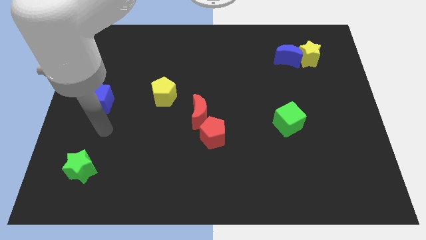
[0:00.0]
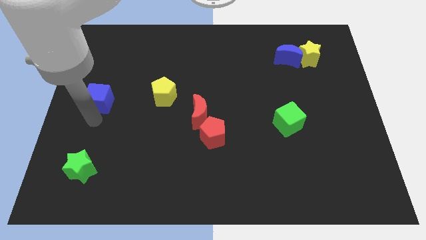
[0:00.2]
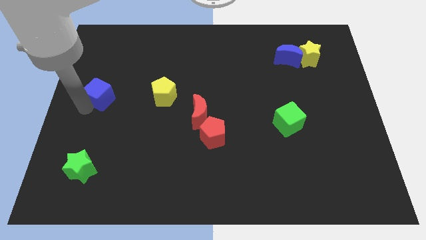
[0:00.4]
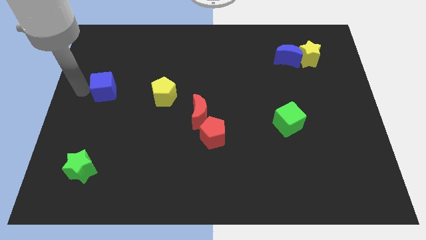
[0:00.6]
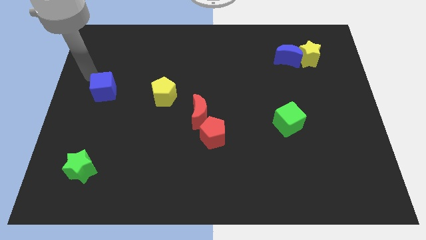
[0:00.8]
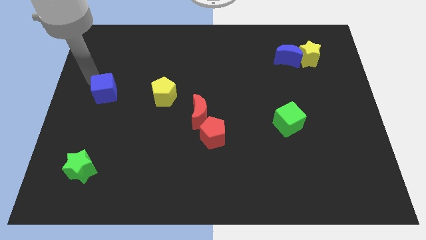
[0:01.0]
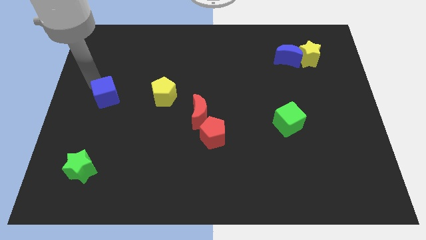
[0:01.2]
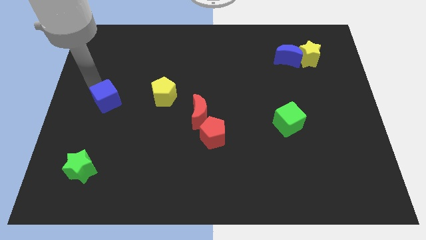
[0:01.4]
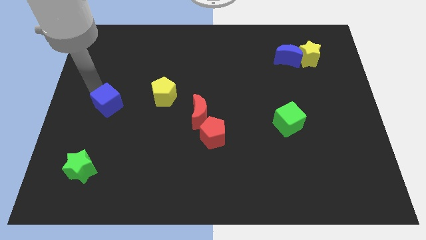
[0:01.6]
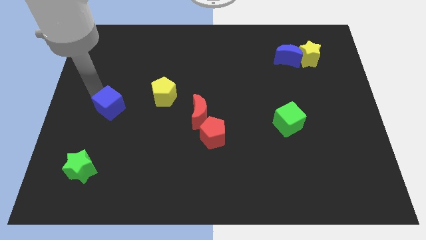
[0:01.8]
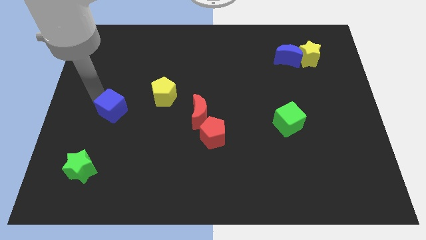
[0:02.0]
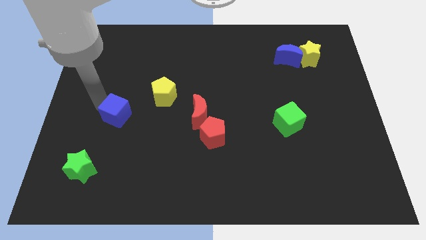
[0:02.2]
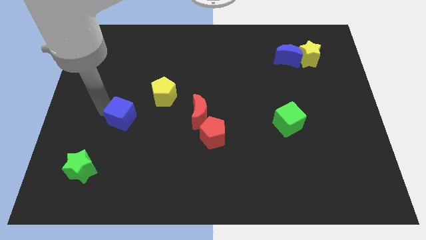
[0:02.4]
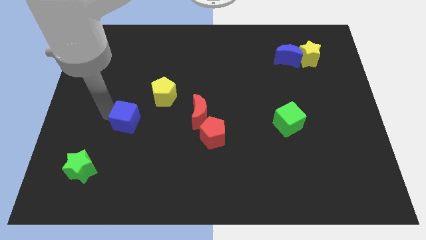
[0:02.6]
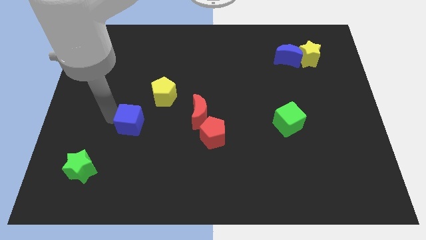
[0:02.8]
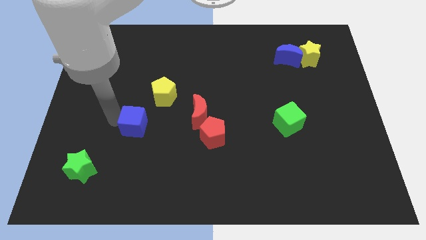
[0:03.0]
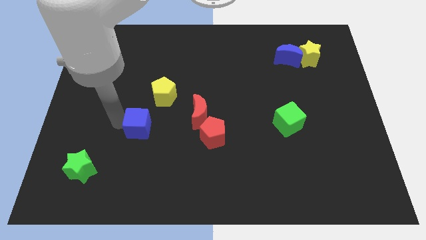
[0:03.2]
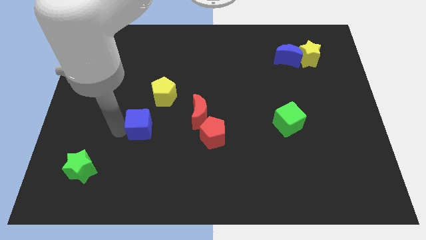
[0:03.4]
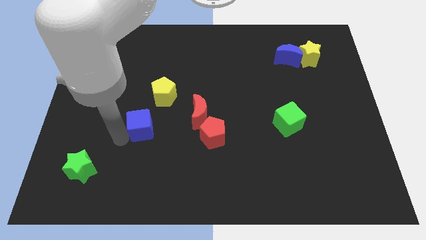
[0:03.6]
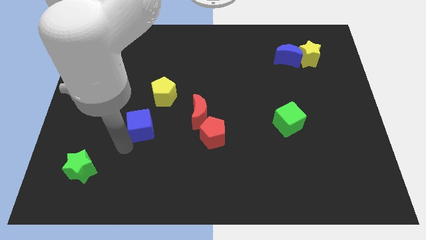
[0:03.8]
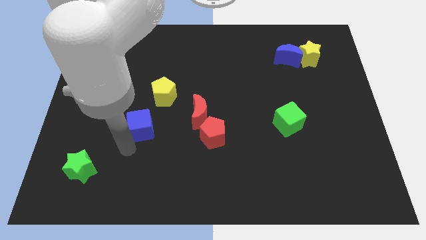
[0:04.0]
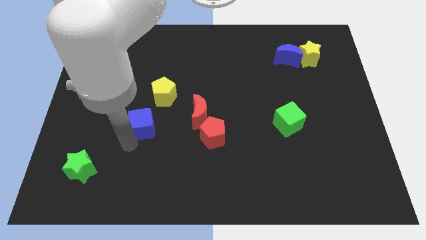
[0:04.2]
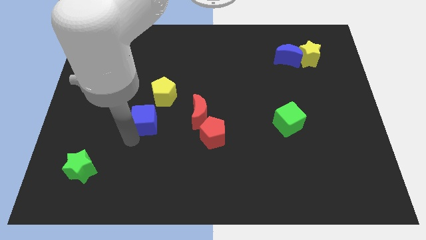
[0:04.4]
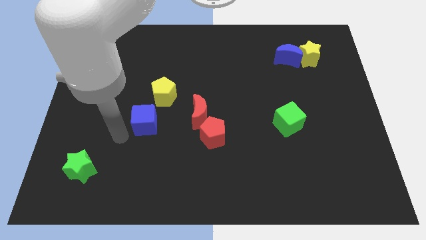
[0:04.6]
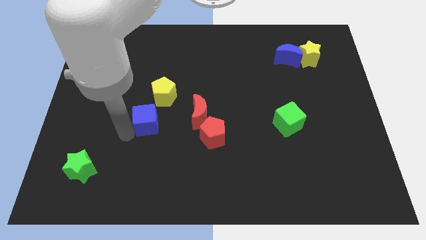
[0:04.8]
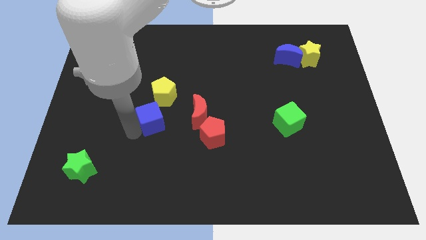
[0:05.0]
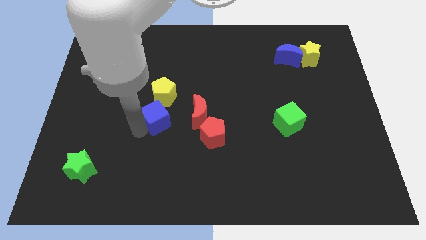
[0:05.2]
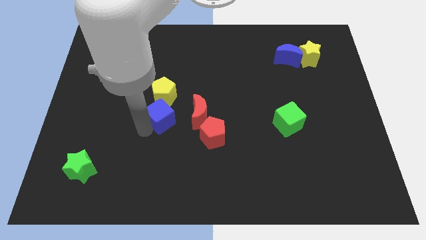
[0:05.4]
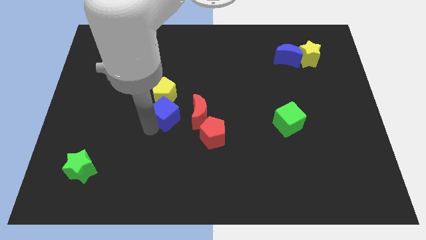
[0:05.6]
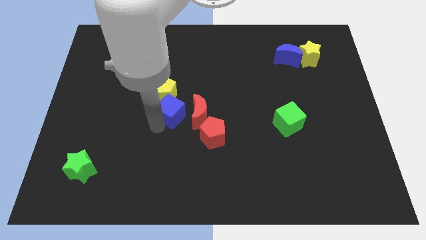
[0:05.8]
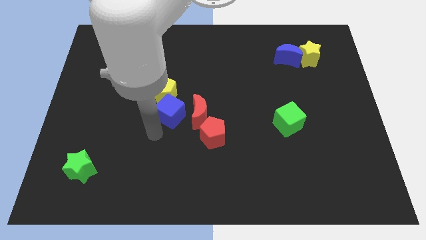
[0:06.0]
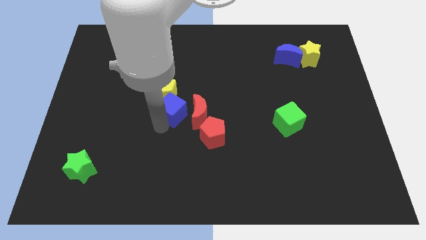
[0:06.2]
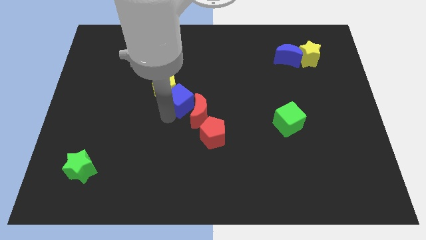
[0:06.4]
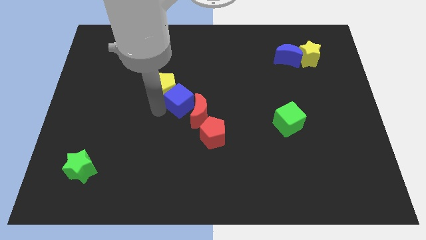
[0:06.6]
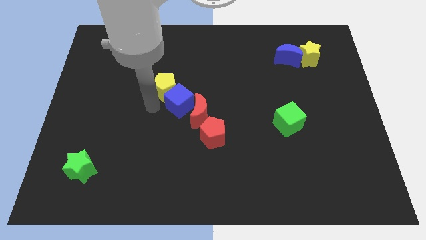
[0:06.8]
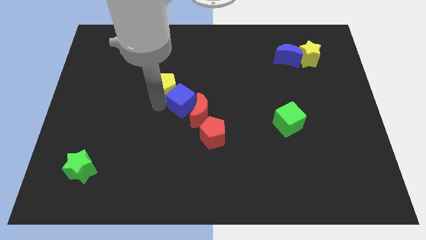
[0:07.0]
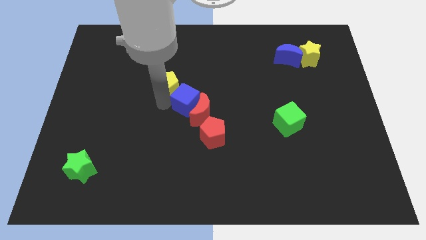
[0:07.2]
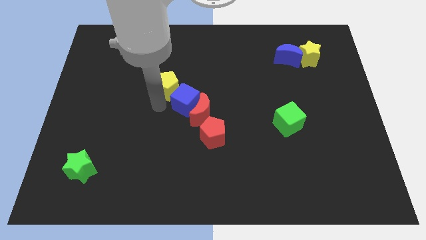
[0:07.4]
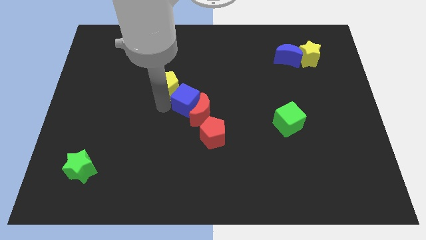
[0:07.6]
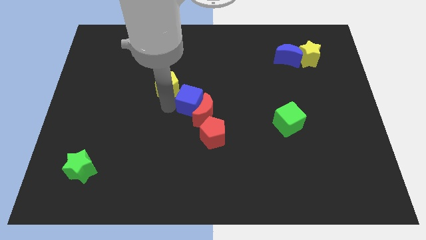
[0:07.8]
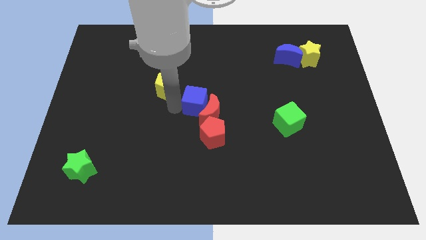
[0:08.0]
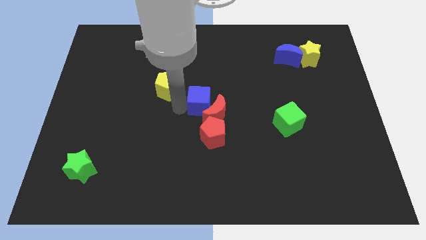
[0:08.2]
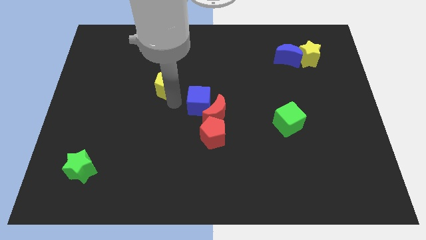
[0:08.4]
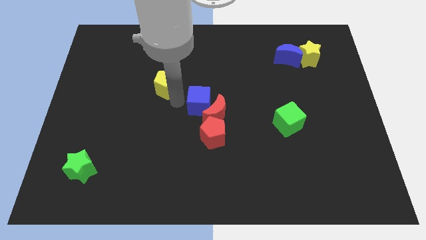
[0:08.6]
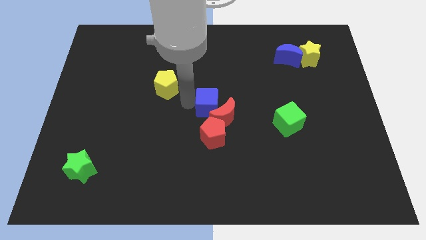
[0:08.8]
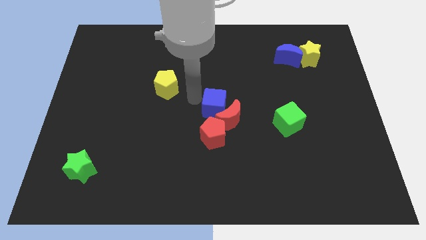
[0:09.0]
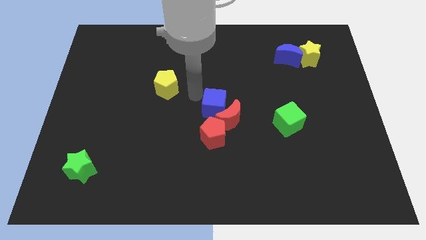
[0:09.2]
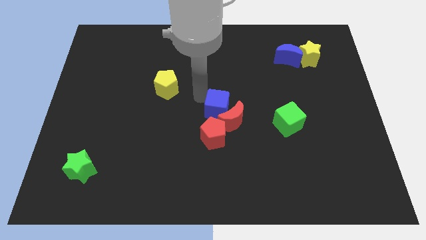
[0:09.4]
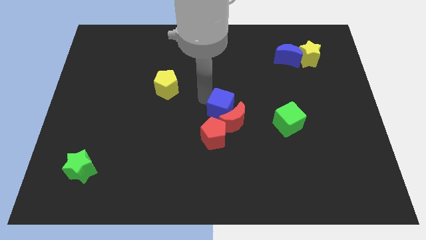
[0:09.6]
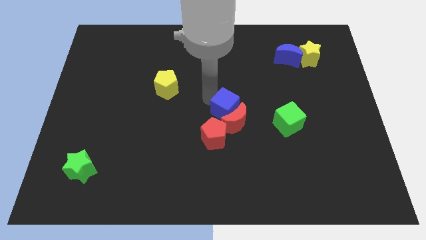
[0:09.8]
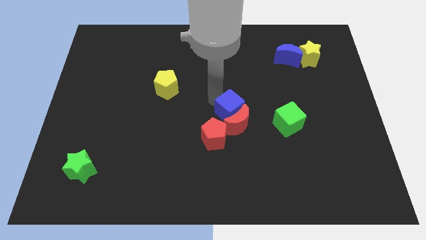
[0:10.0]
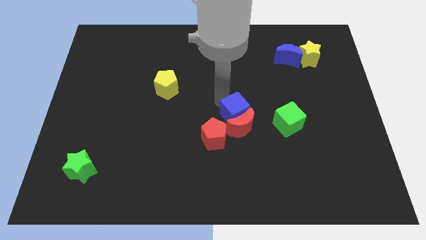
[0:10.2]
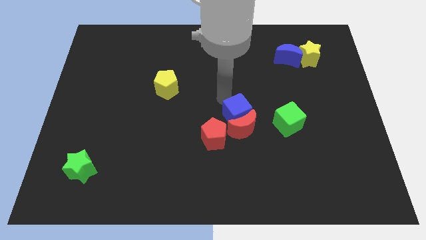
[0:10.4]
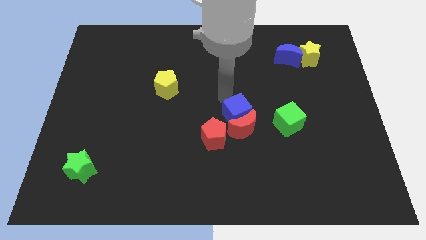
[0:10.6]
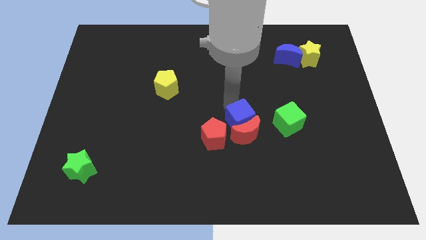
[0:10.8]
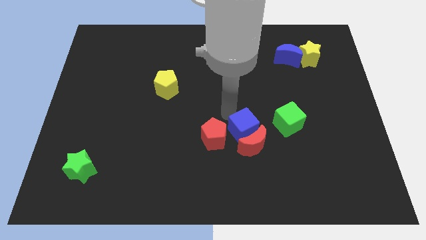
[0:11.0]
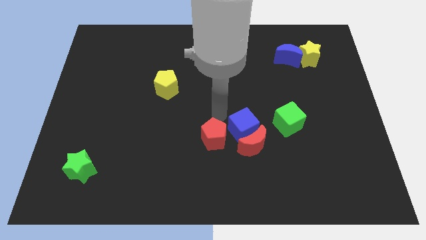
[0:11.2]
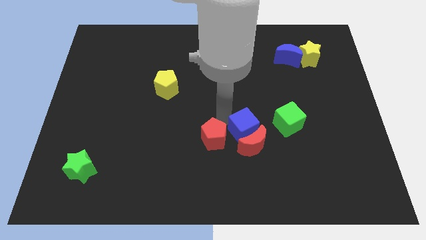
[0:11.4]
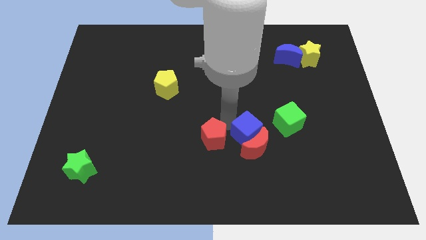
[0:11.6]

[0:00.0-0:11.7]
put the blue cube diagonally down and to the left of the green cube

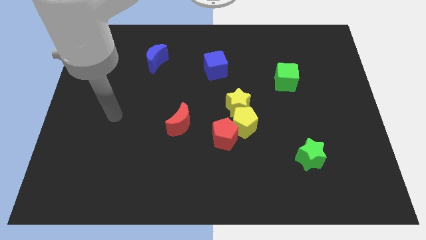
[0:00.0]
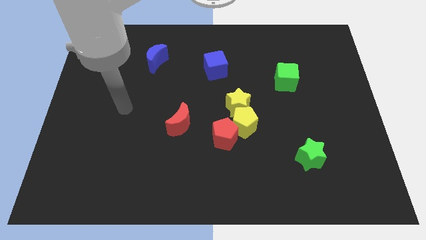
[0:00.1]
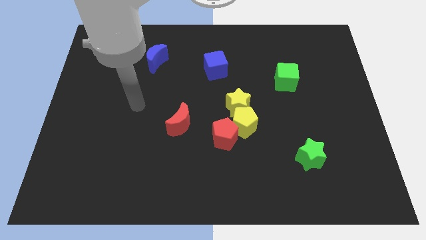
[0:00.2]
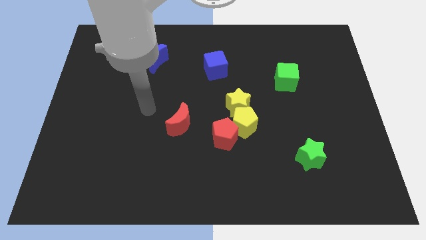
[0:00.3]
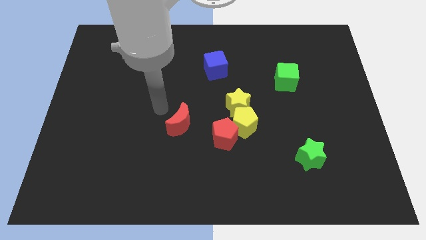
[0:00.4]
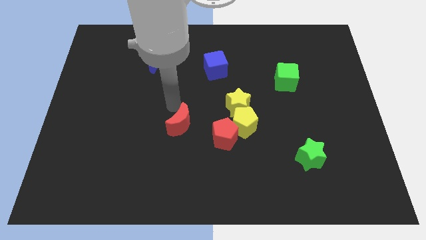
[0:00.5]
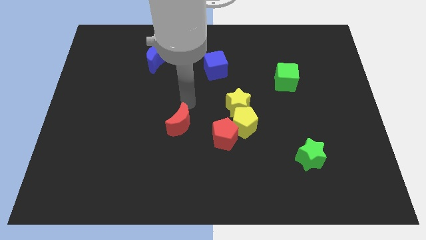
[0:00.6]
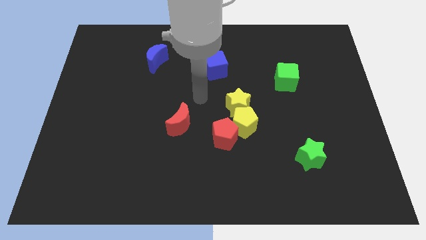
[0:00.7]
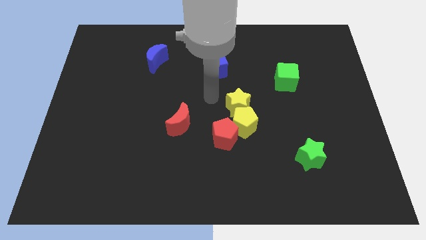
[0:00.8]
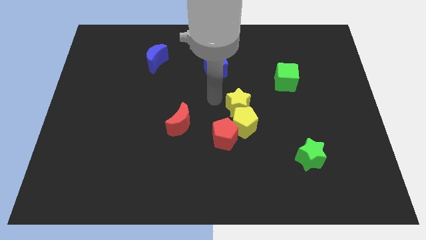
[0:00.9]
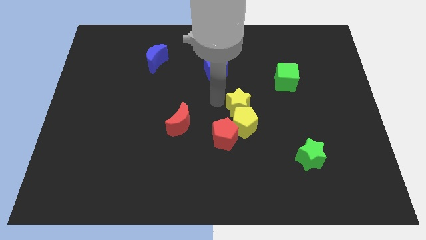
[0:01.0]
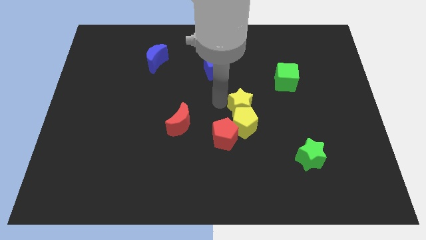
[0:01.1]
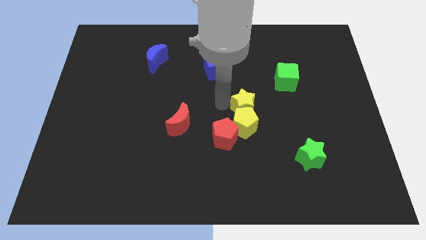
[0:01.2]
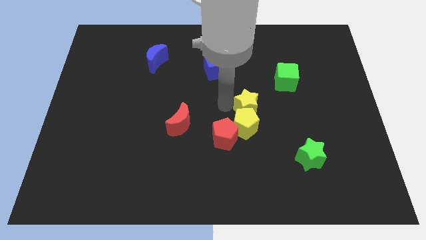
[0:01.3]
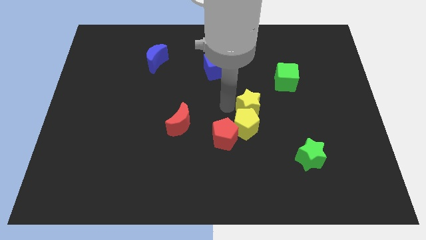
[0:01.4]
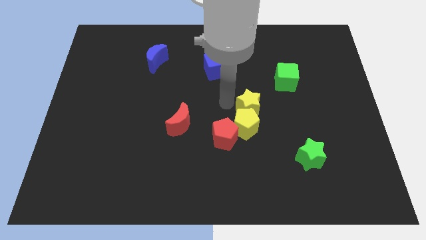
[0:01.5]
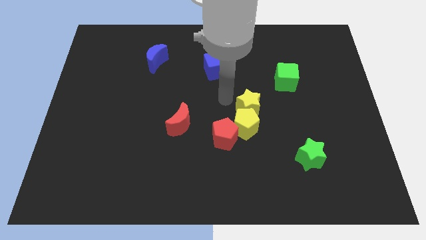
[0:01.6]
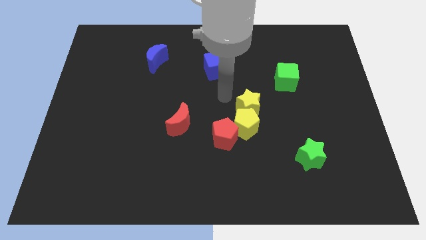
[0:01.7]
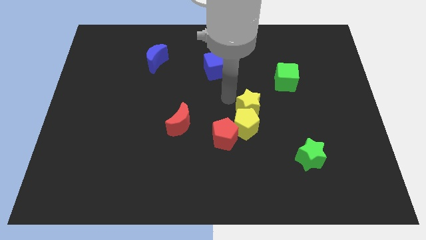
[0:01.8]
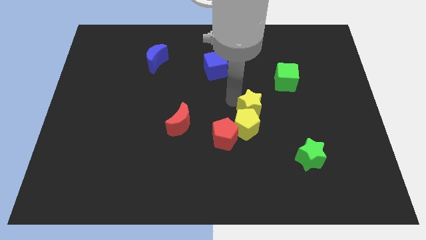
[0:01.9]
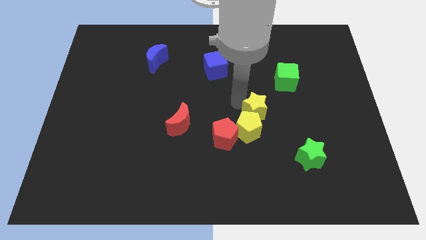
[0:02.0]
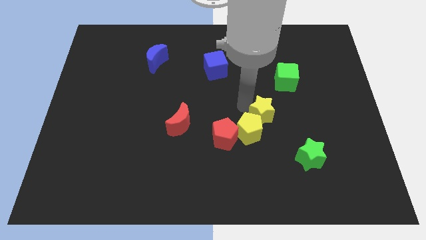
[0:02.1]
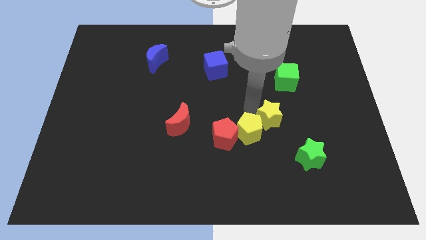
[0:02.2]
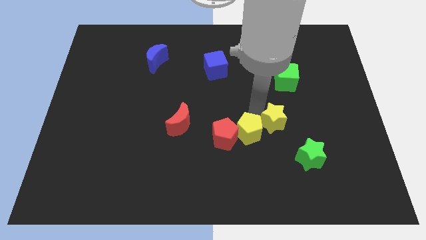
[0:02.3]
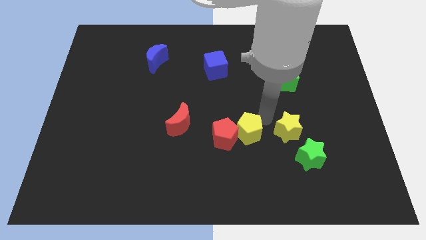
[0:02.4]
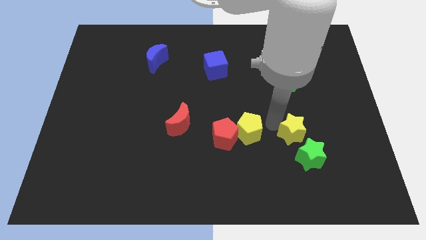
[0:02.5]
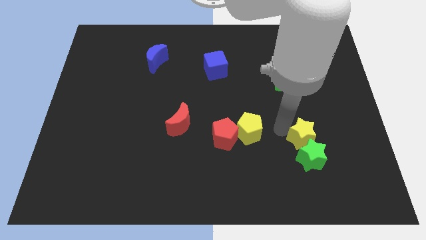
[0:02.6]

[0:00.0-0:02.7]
slide the yellow star to the top right side of the green star
